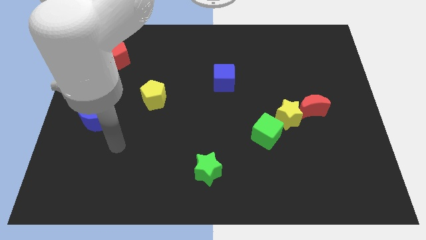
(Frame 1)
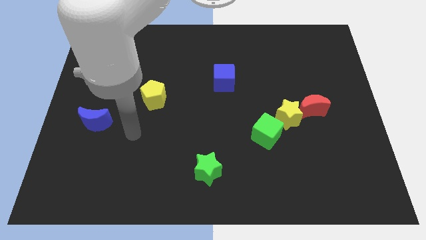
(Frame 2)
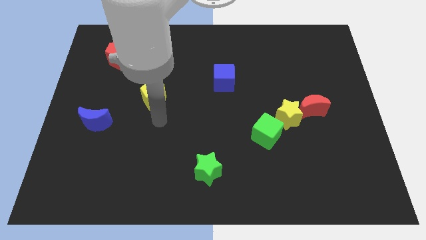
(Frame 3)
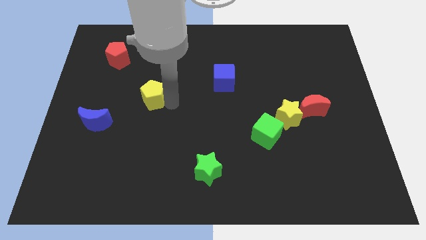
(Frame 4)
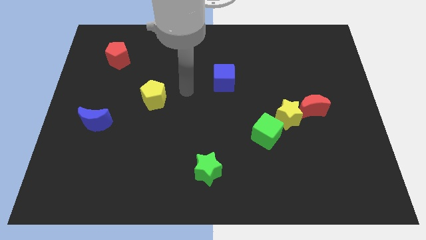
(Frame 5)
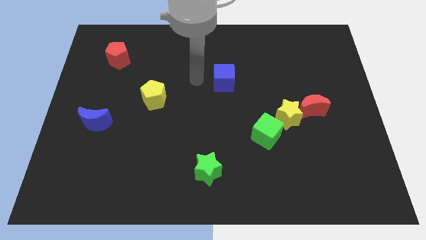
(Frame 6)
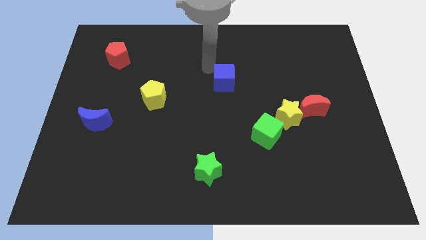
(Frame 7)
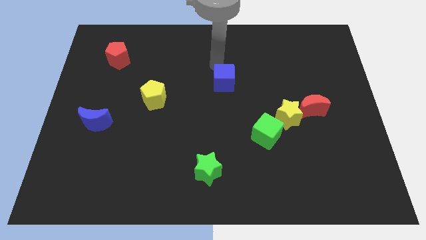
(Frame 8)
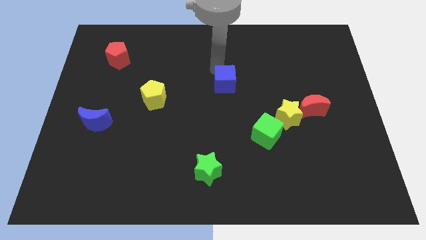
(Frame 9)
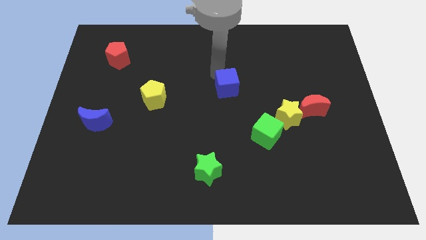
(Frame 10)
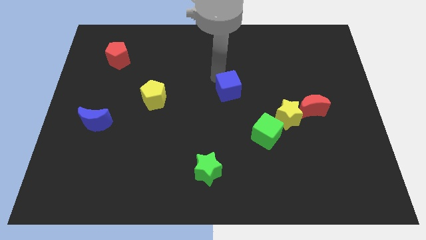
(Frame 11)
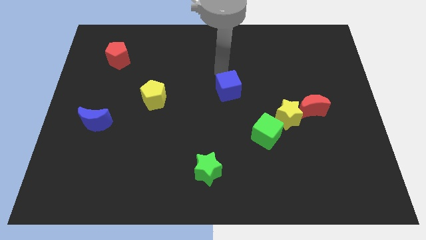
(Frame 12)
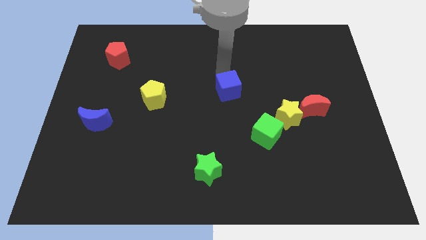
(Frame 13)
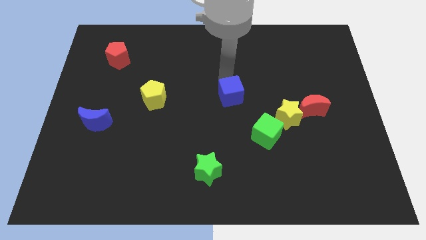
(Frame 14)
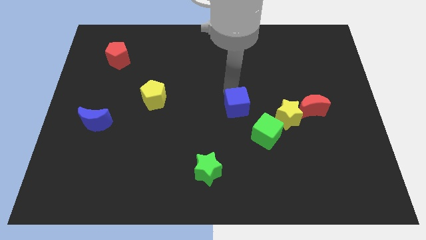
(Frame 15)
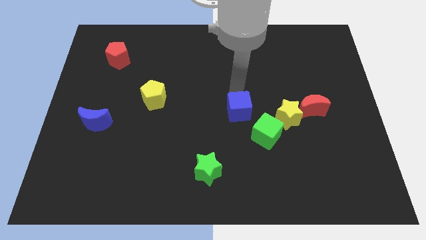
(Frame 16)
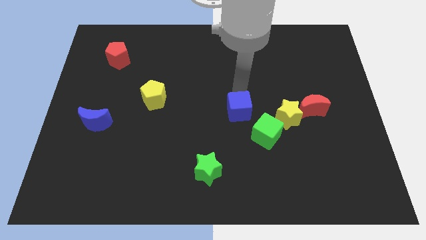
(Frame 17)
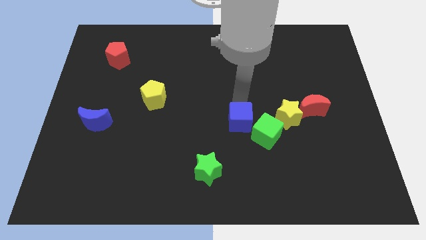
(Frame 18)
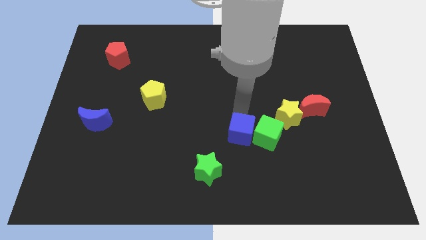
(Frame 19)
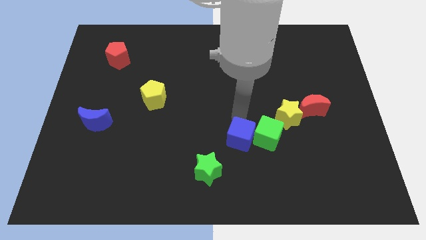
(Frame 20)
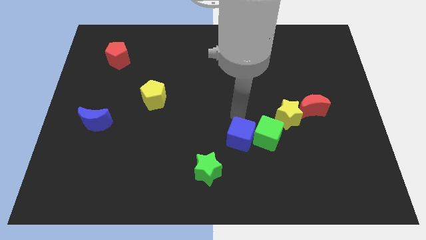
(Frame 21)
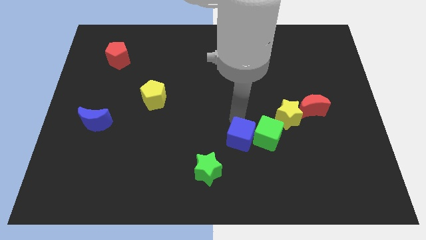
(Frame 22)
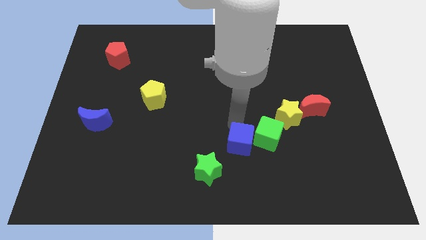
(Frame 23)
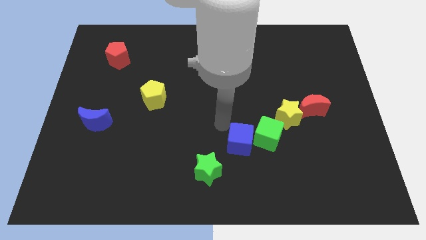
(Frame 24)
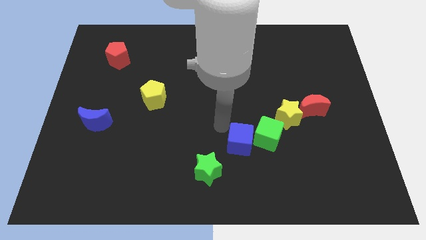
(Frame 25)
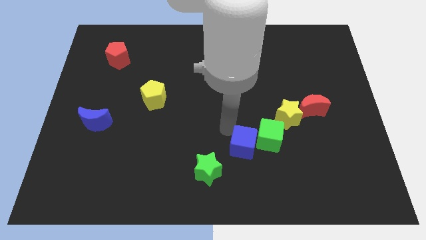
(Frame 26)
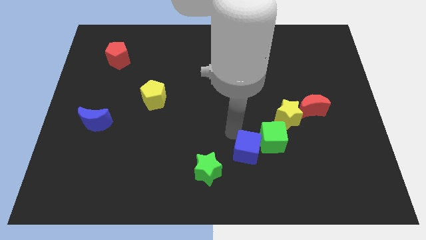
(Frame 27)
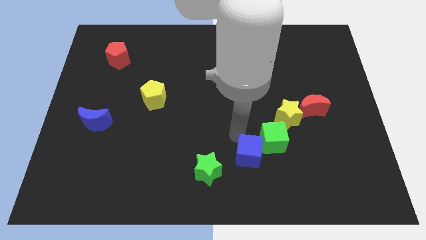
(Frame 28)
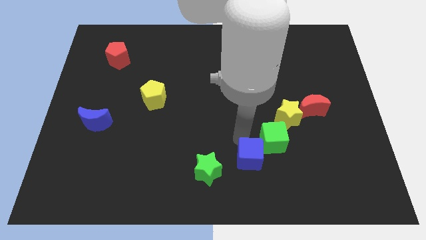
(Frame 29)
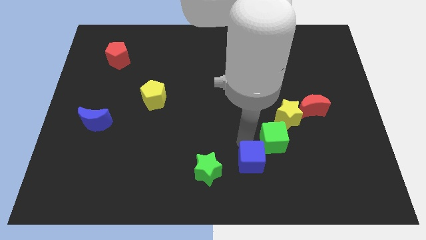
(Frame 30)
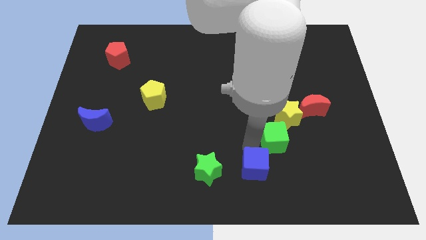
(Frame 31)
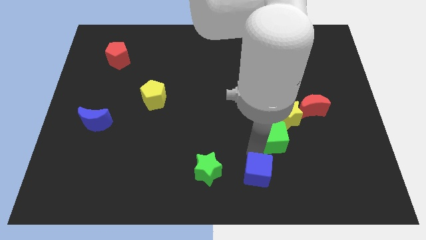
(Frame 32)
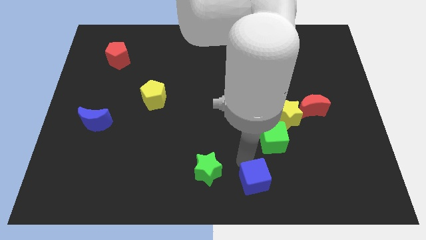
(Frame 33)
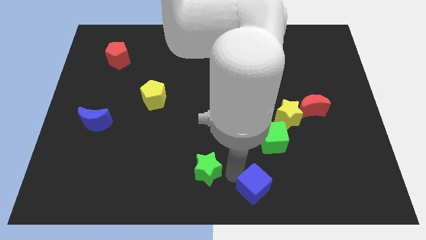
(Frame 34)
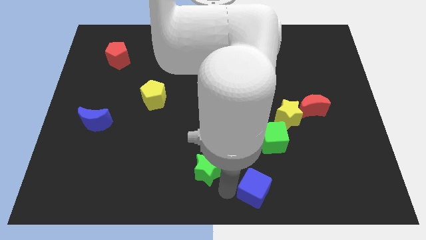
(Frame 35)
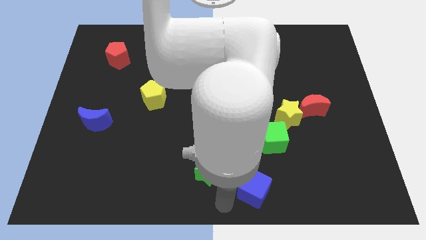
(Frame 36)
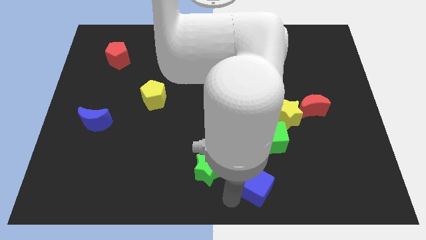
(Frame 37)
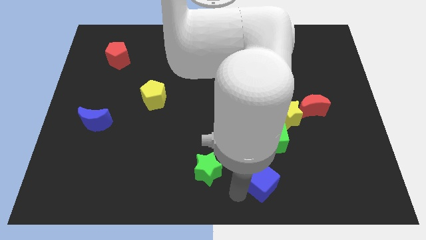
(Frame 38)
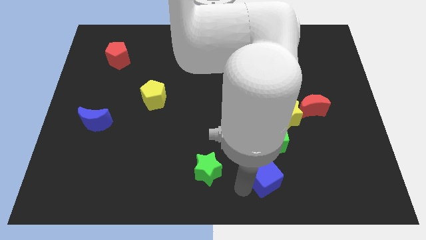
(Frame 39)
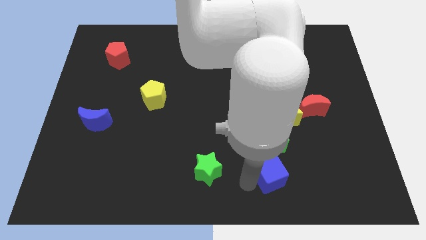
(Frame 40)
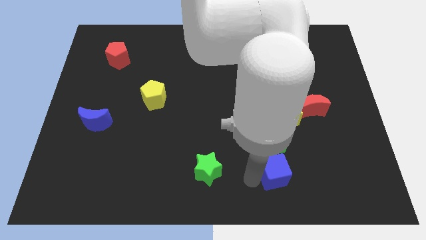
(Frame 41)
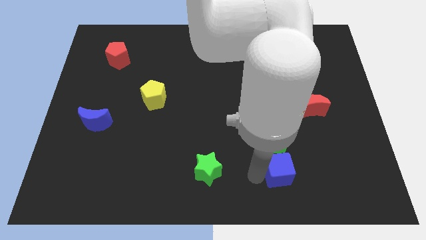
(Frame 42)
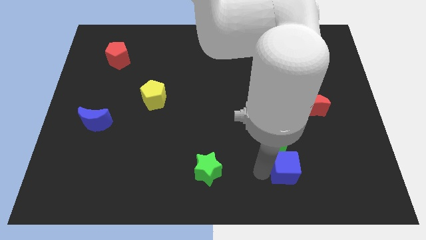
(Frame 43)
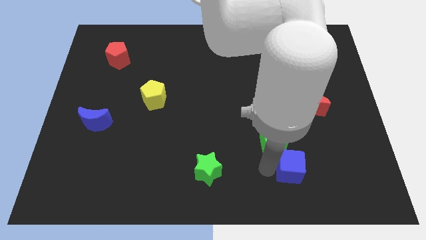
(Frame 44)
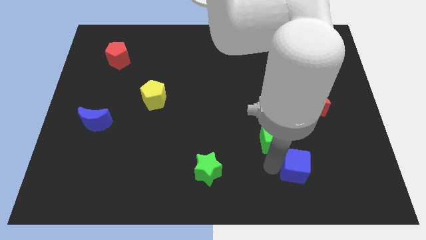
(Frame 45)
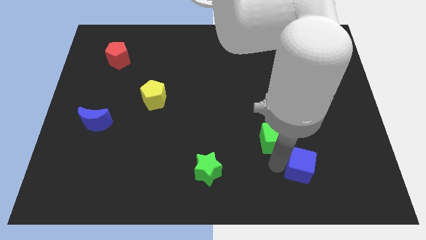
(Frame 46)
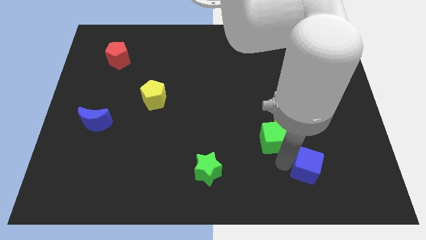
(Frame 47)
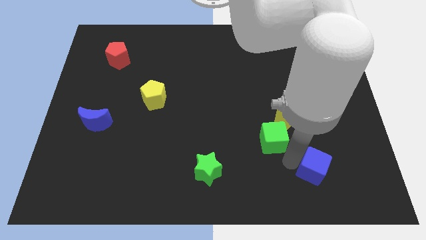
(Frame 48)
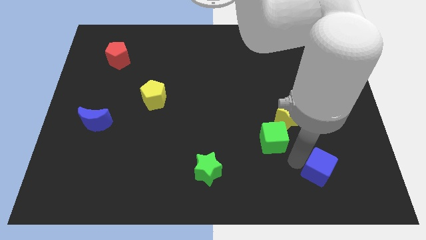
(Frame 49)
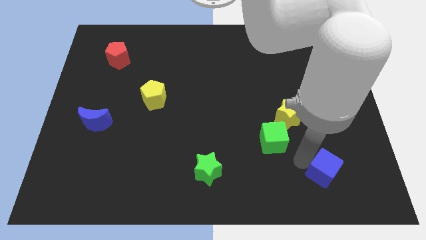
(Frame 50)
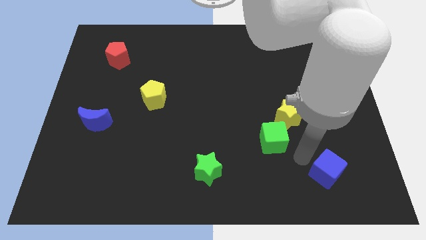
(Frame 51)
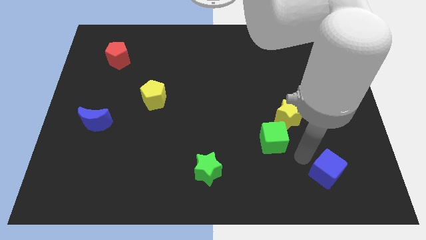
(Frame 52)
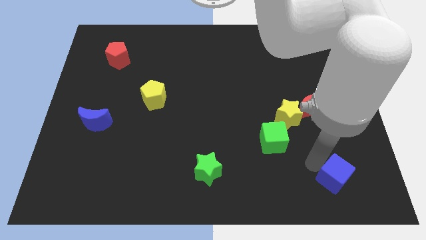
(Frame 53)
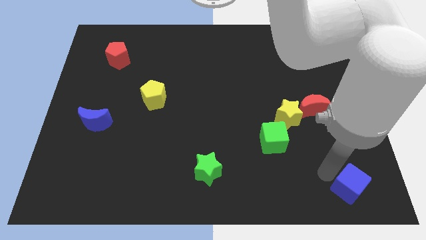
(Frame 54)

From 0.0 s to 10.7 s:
push the blue cube to the bottom right corner

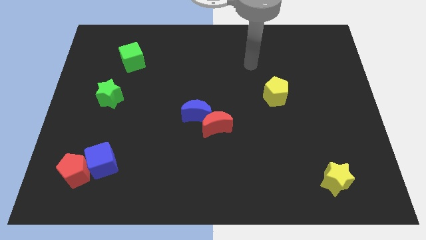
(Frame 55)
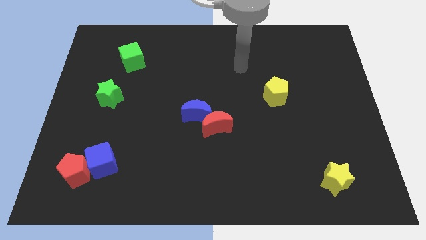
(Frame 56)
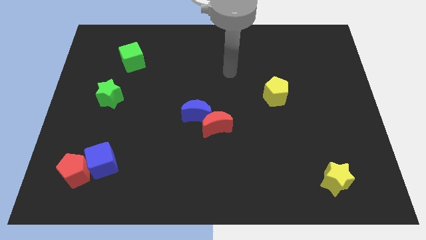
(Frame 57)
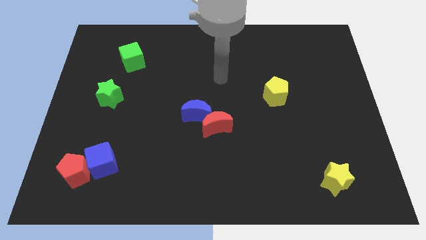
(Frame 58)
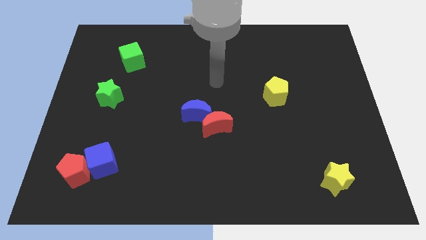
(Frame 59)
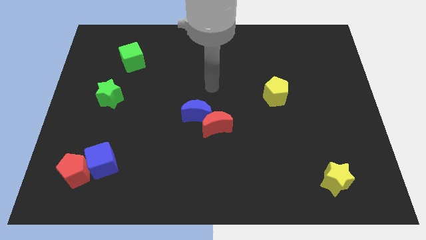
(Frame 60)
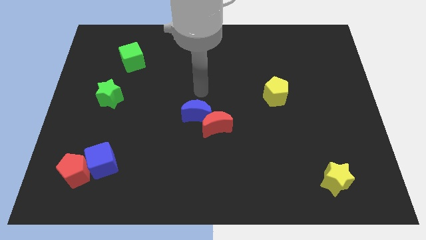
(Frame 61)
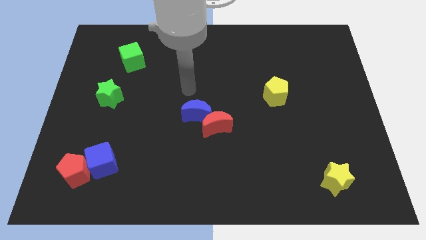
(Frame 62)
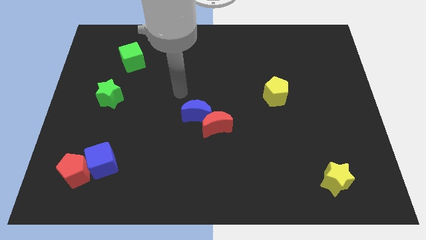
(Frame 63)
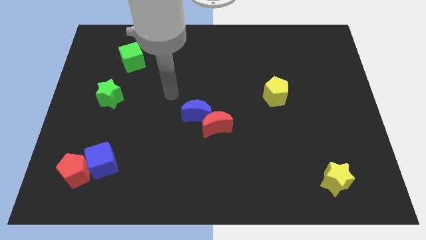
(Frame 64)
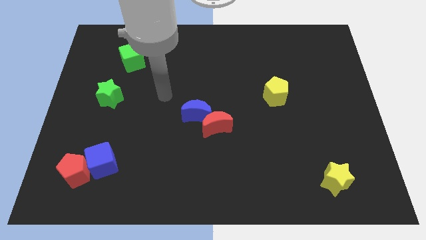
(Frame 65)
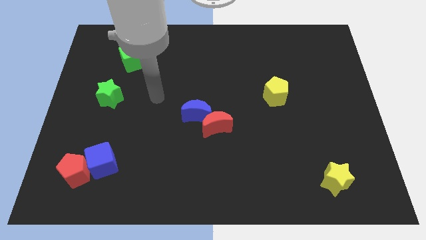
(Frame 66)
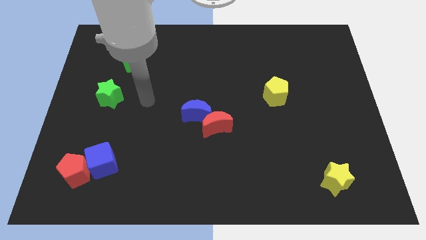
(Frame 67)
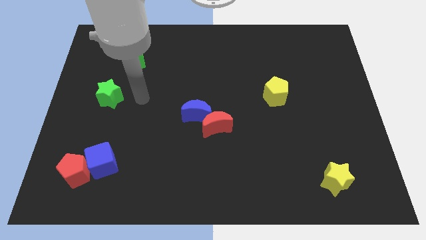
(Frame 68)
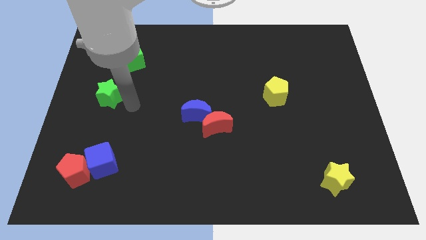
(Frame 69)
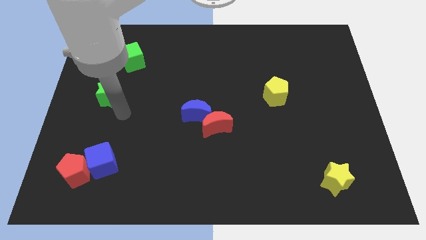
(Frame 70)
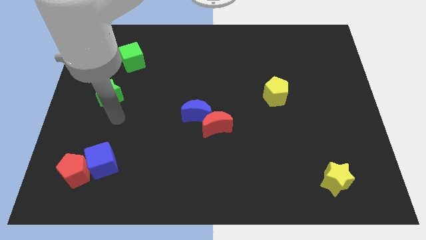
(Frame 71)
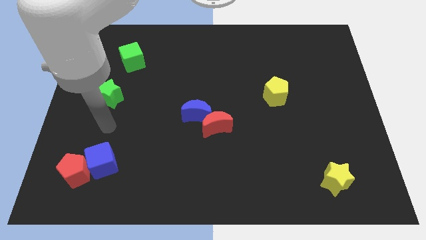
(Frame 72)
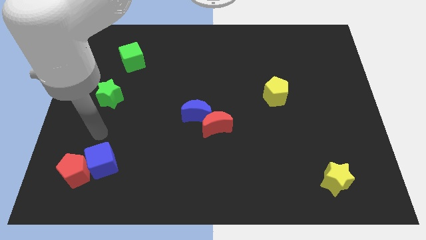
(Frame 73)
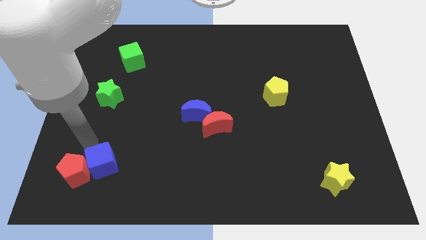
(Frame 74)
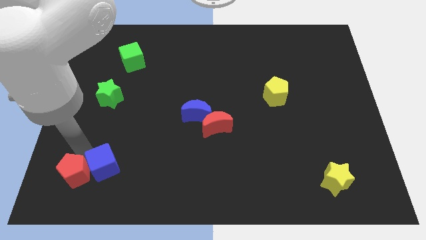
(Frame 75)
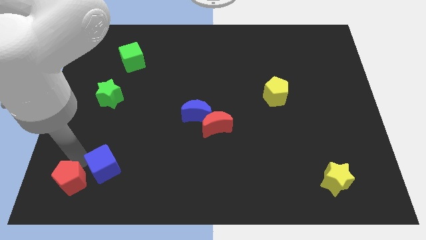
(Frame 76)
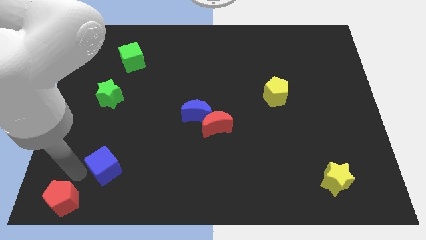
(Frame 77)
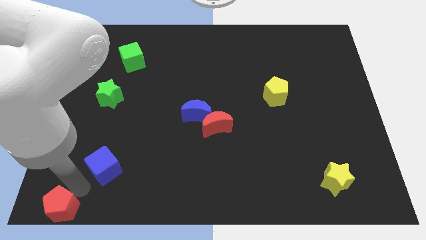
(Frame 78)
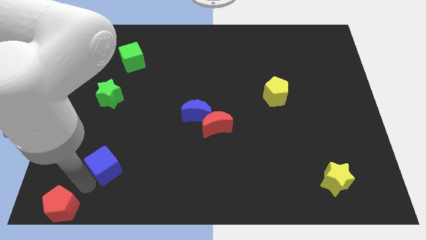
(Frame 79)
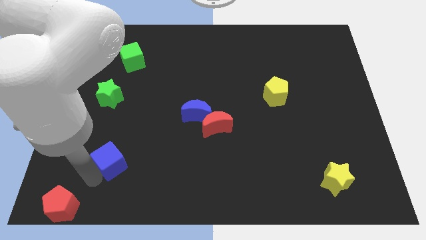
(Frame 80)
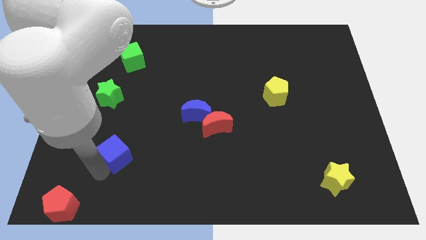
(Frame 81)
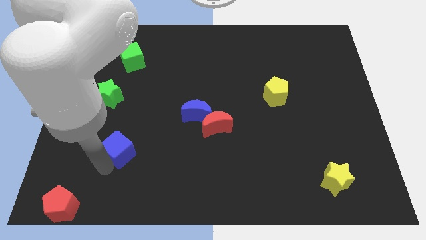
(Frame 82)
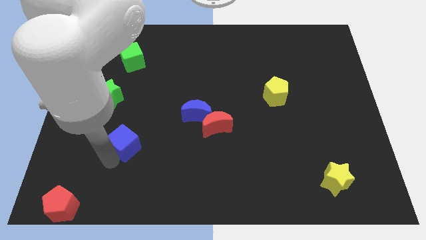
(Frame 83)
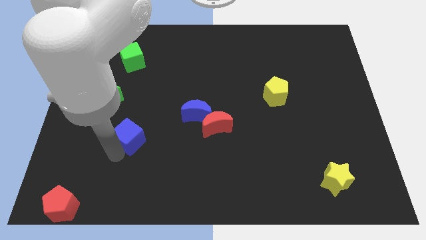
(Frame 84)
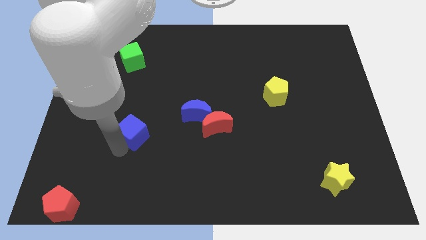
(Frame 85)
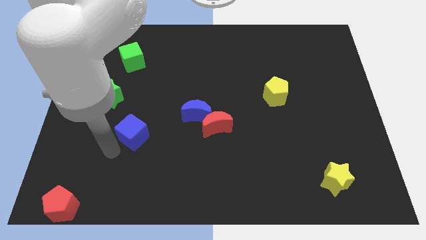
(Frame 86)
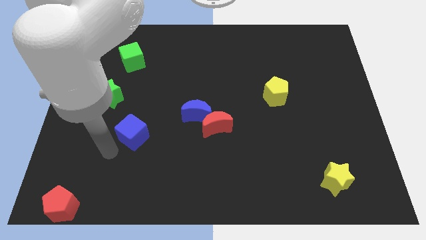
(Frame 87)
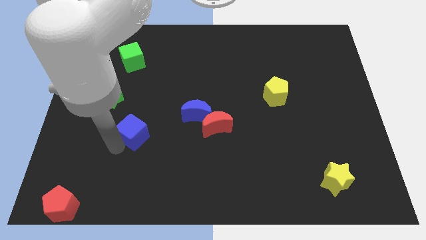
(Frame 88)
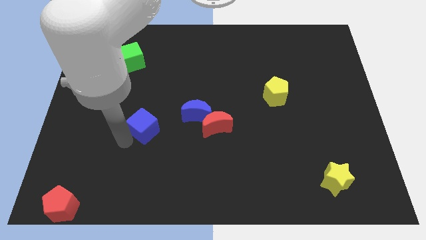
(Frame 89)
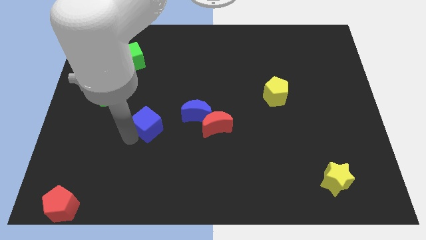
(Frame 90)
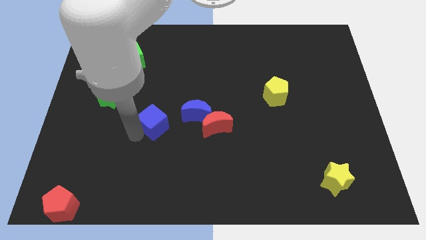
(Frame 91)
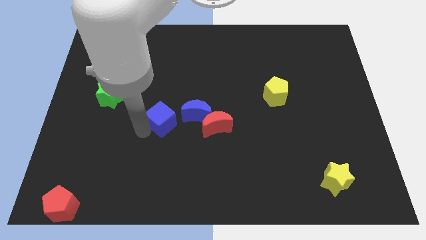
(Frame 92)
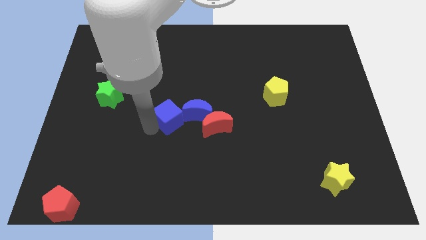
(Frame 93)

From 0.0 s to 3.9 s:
move the blue cube to the center
